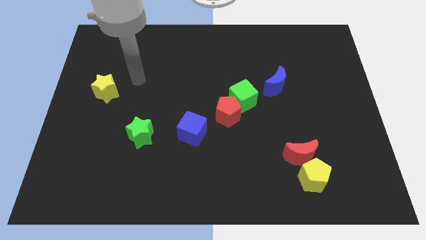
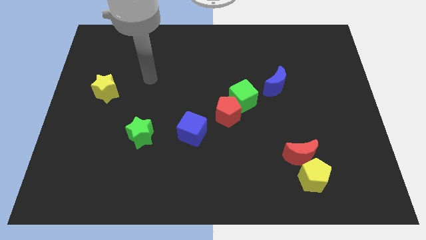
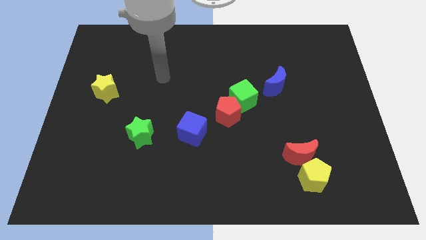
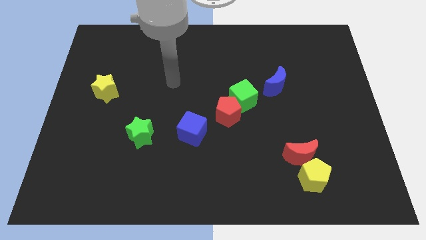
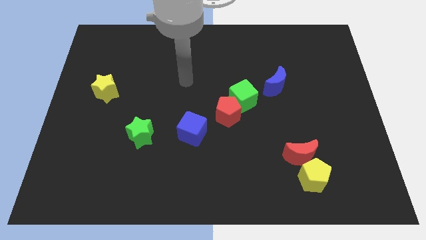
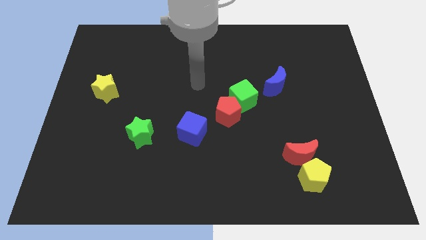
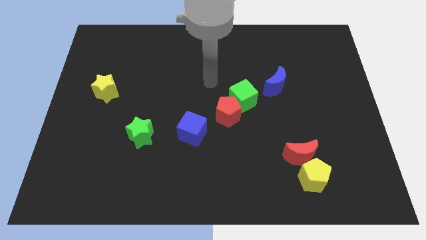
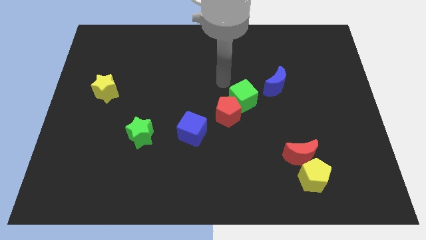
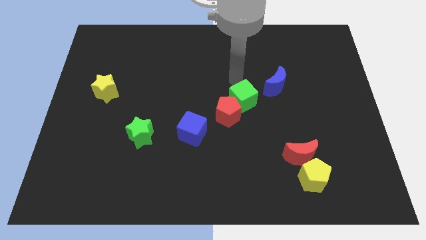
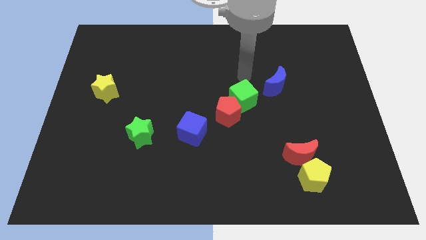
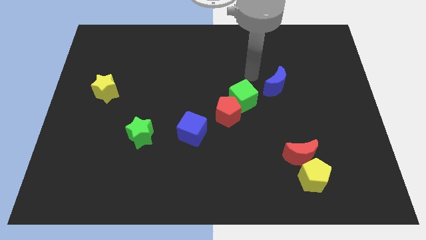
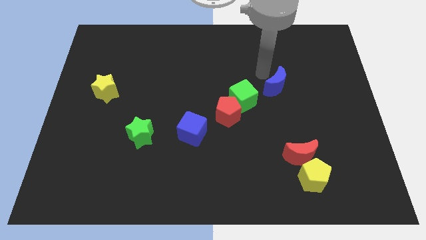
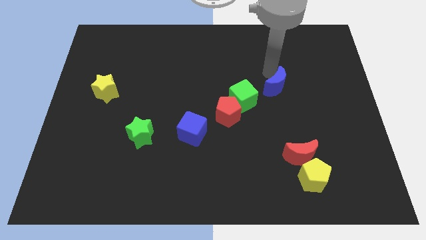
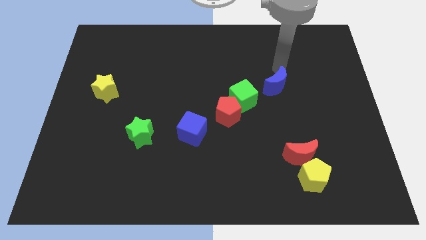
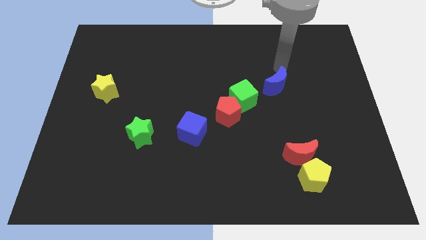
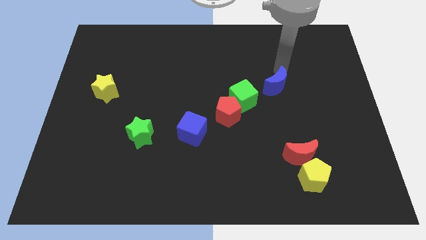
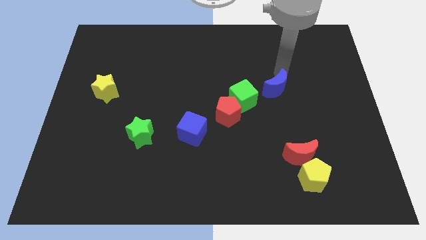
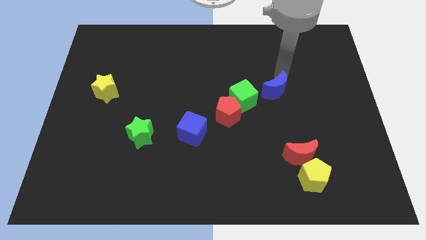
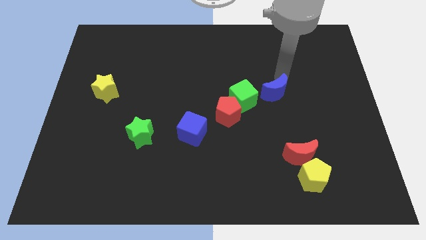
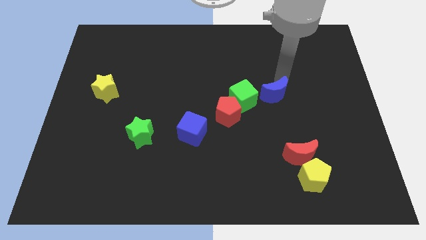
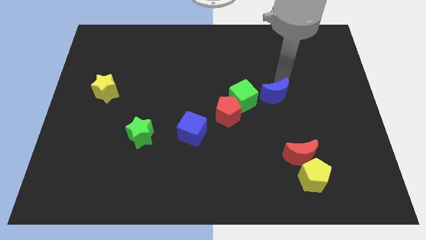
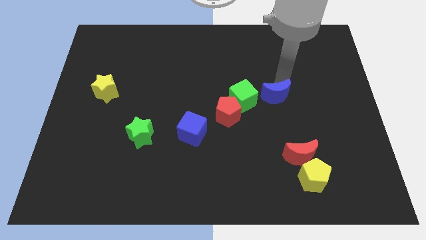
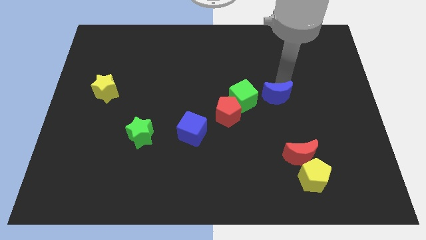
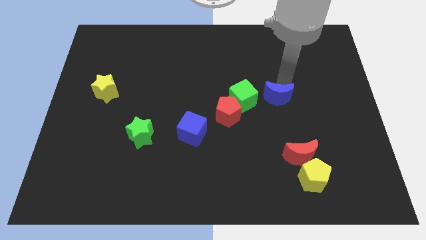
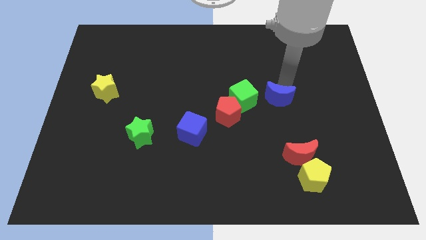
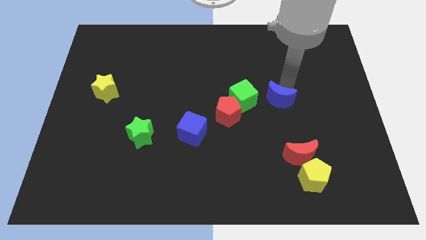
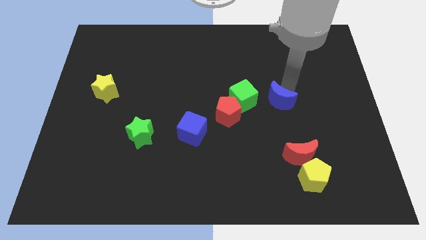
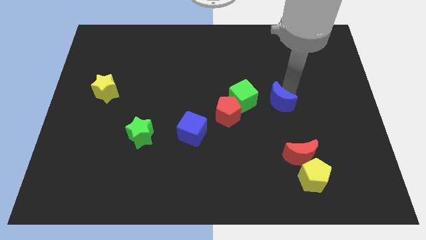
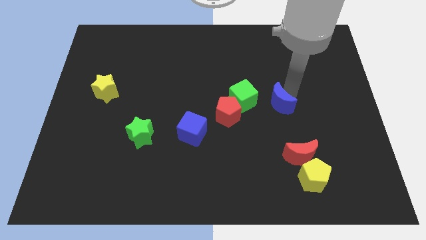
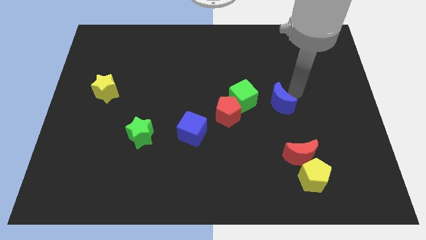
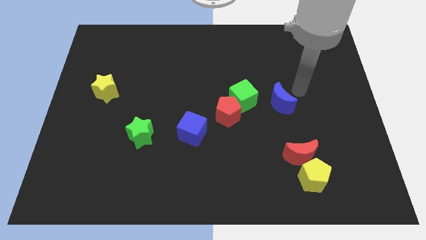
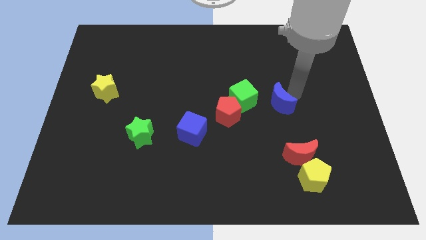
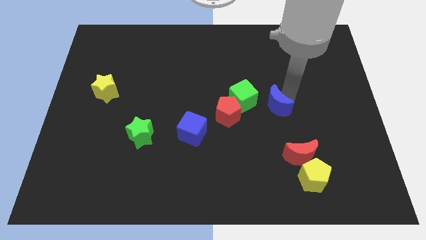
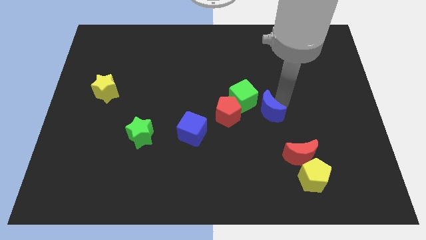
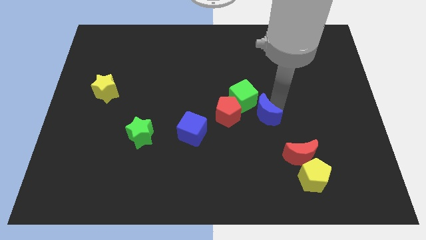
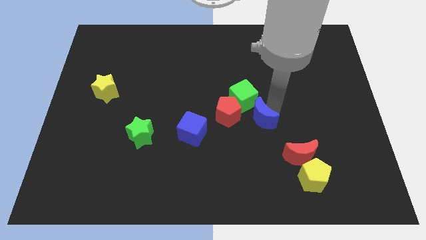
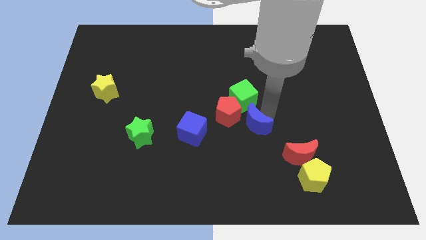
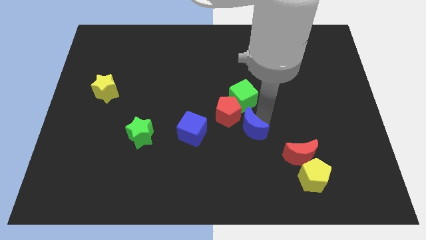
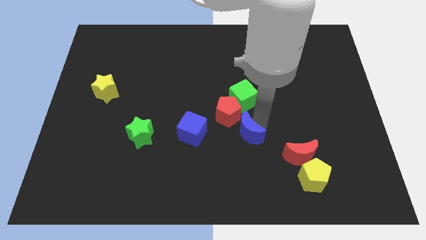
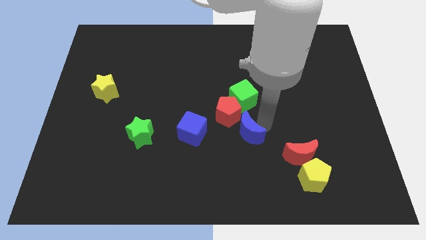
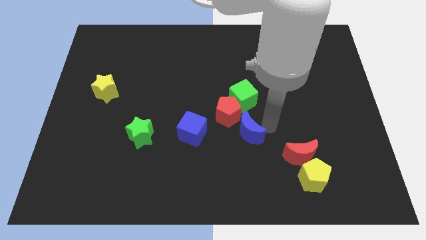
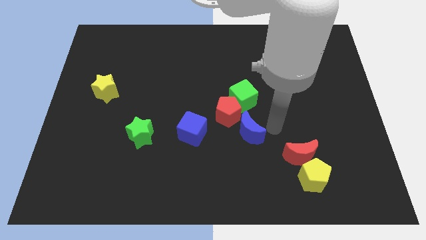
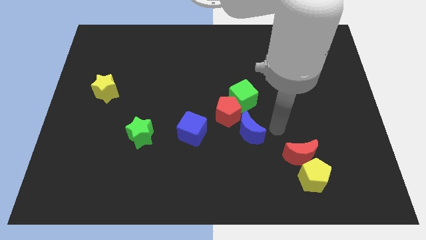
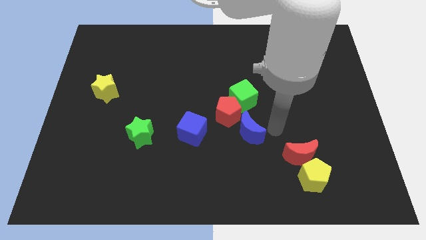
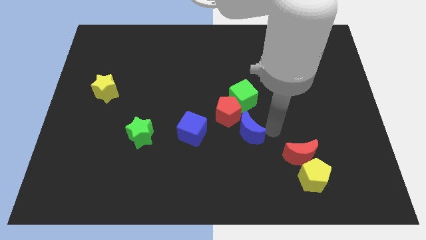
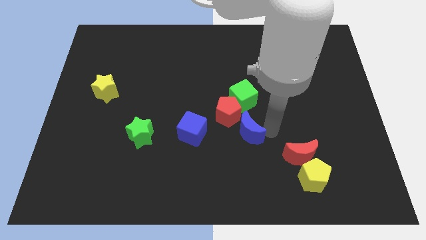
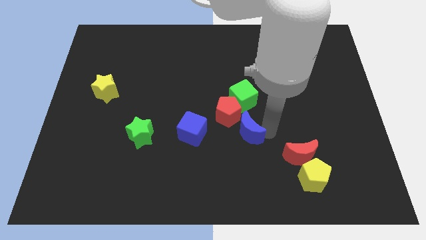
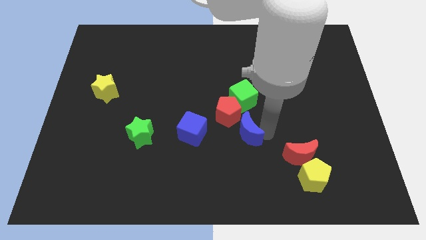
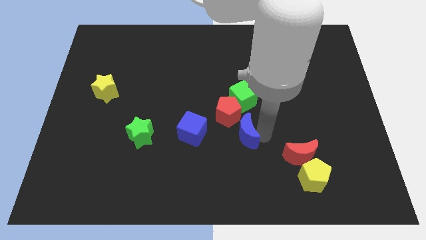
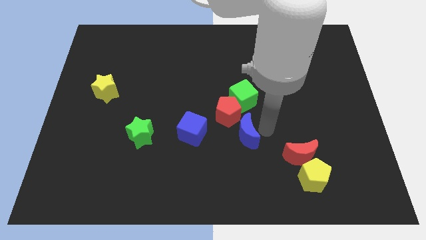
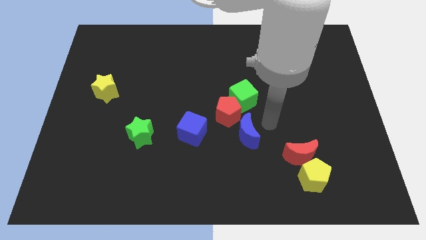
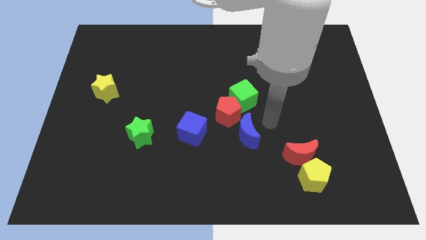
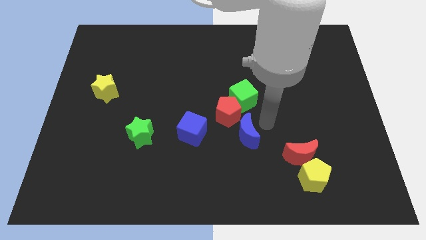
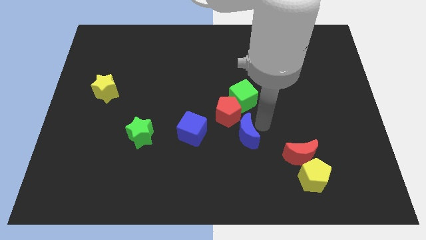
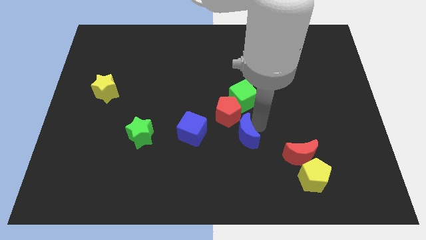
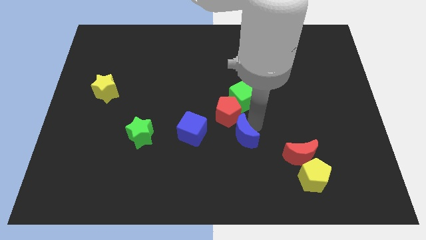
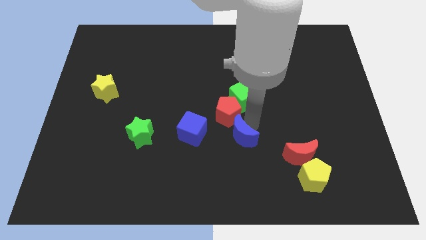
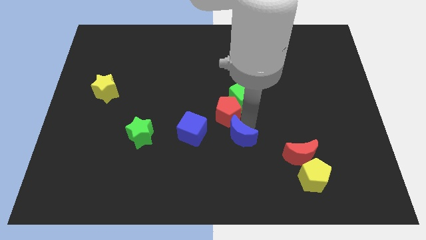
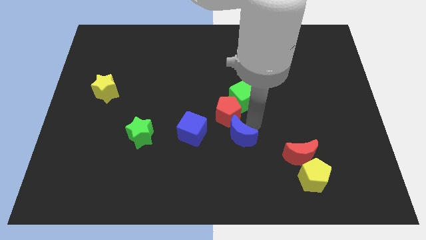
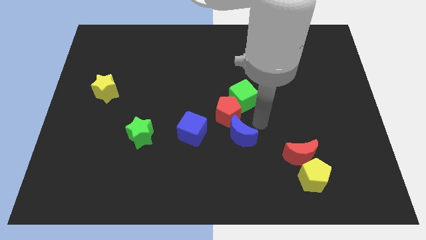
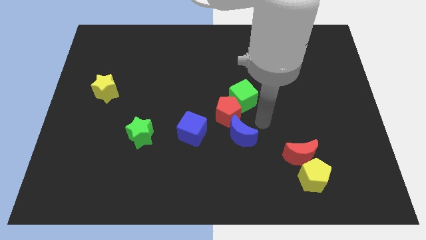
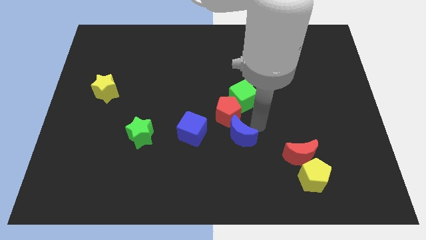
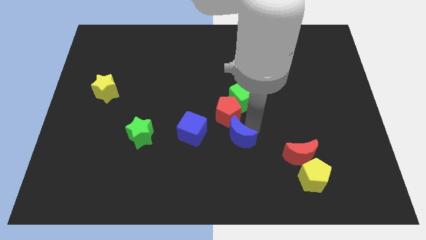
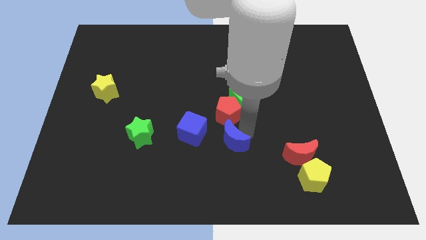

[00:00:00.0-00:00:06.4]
put the blue moon to the bottom right of the blue cube

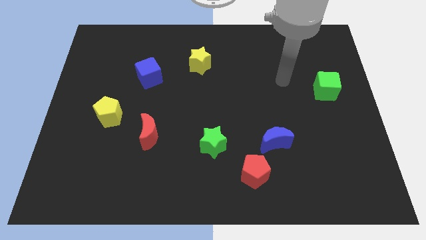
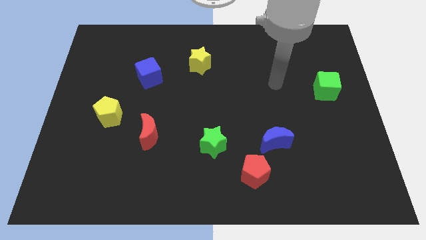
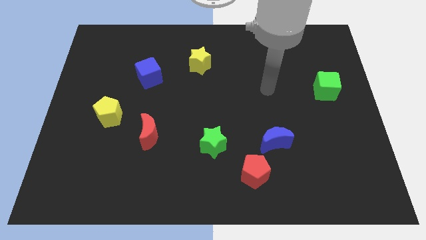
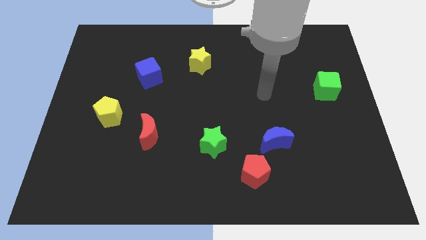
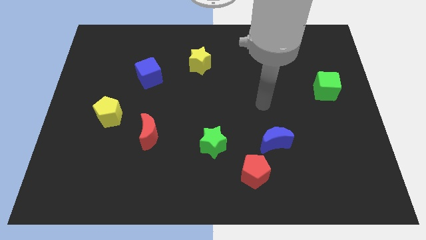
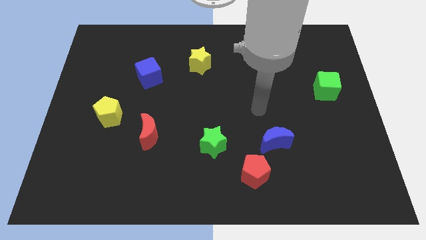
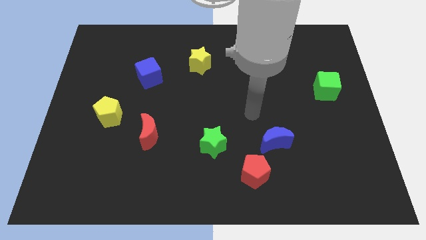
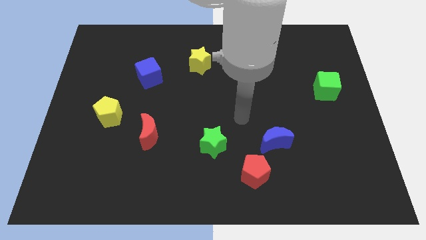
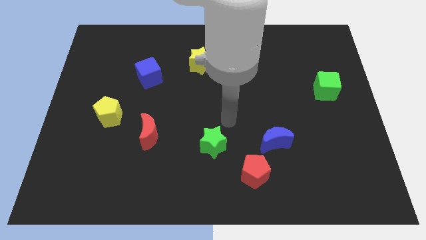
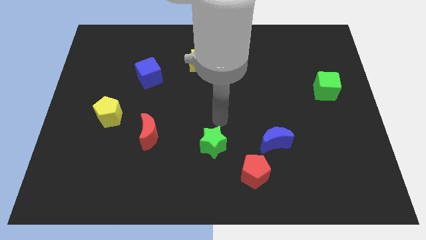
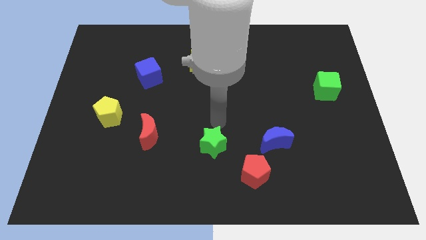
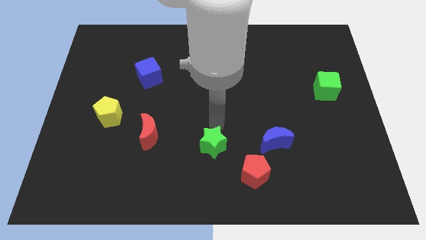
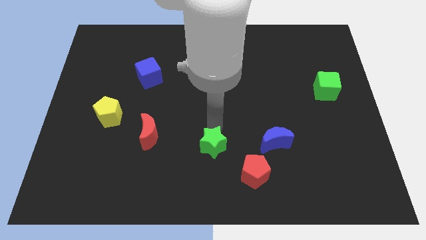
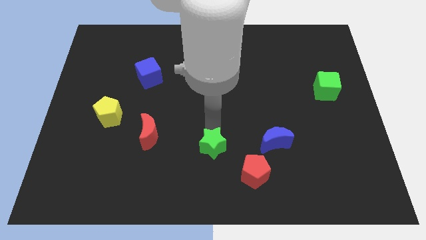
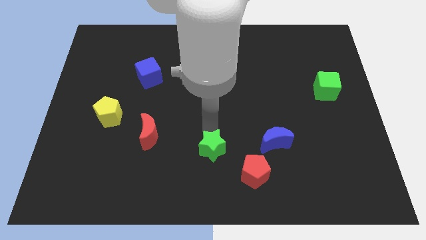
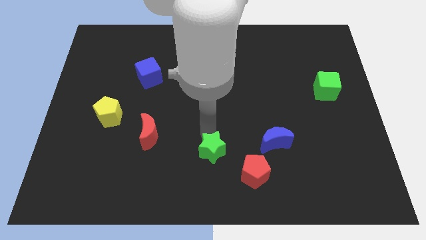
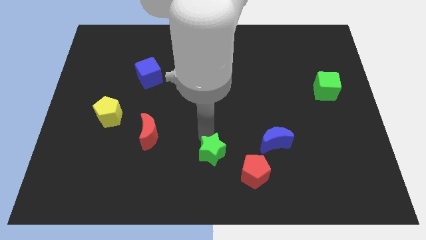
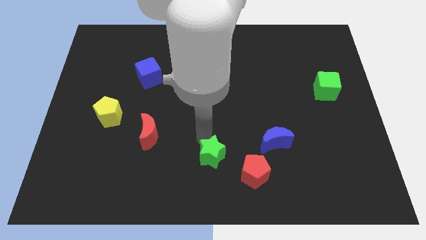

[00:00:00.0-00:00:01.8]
put the green star to the left side of the red pentagon
